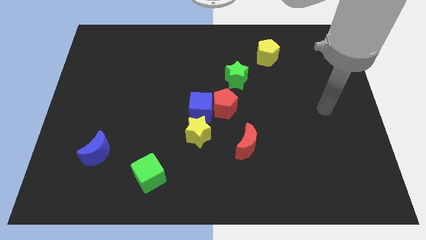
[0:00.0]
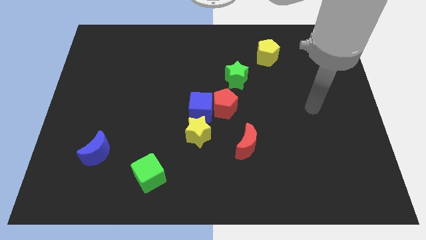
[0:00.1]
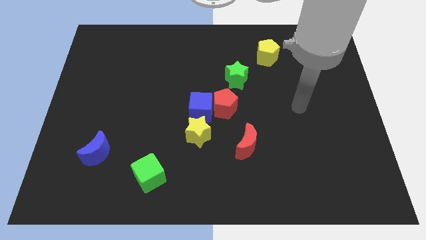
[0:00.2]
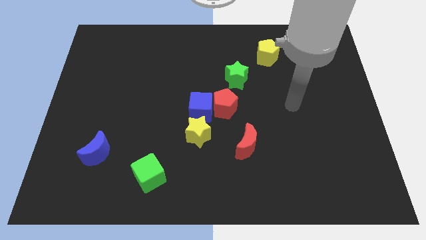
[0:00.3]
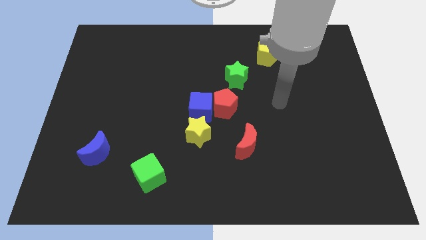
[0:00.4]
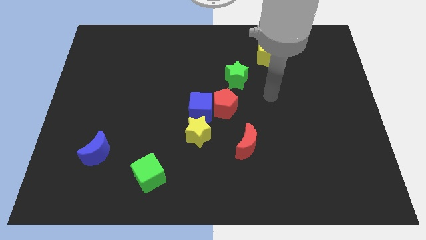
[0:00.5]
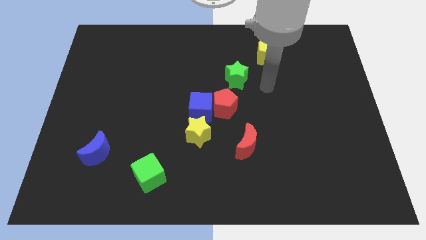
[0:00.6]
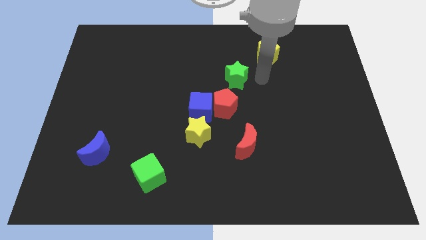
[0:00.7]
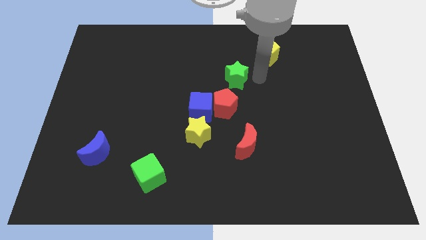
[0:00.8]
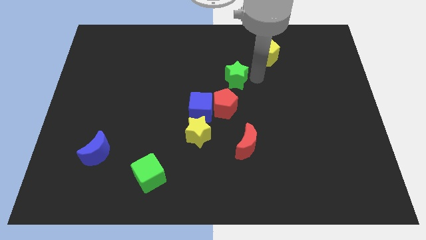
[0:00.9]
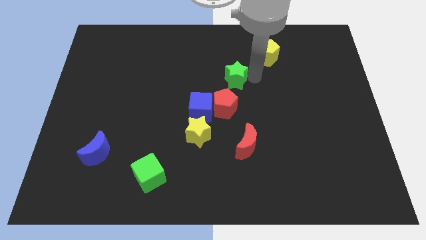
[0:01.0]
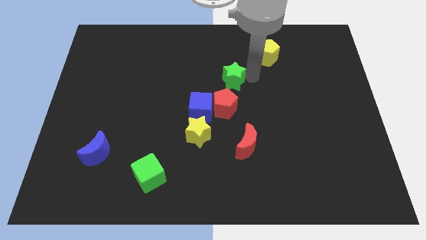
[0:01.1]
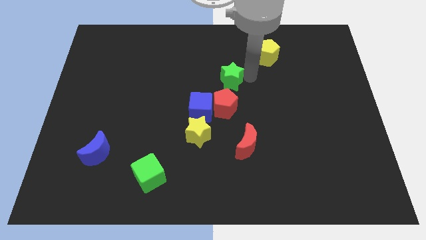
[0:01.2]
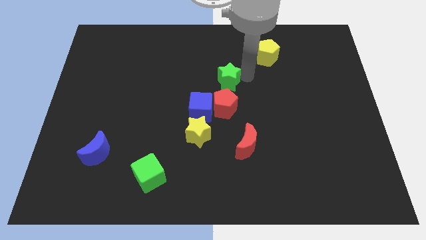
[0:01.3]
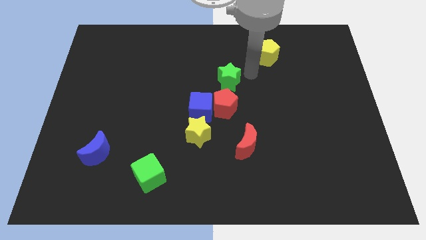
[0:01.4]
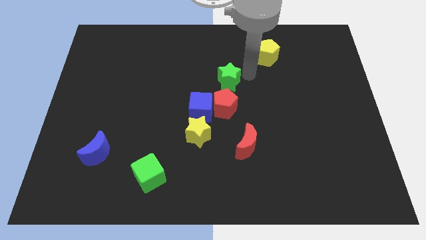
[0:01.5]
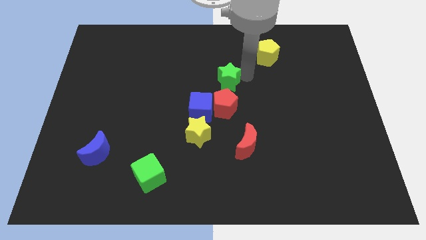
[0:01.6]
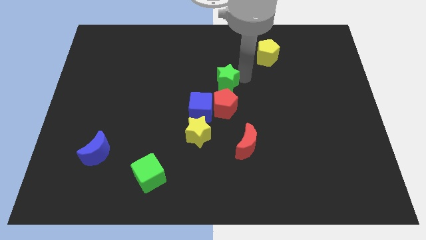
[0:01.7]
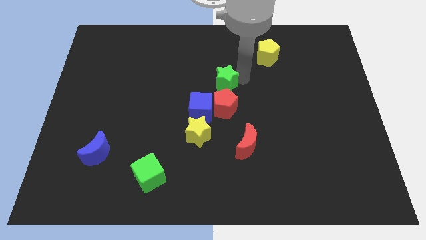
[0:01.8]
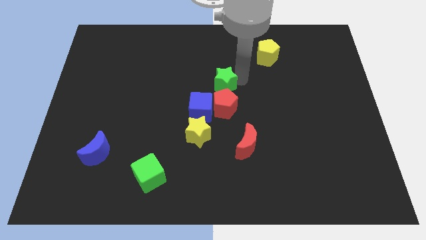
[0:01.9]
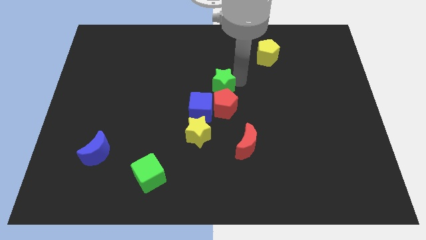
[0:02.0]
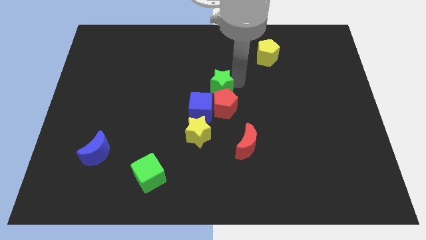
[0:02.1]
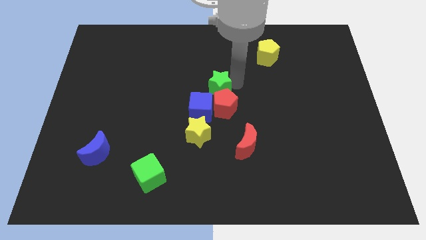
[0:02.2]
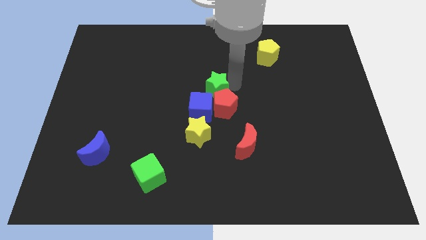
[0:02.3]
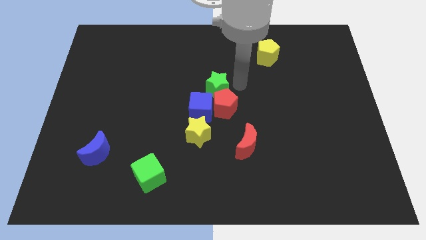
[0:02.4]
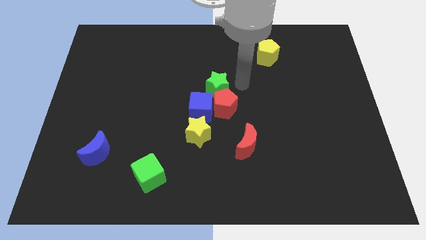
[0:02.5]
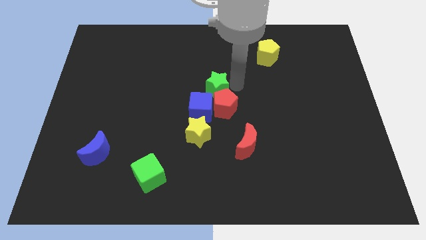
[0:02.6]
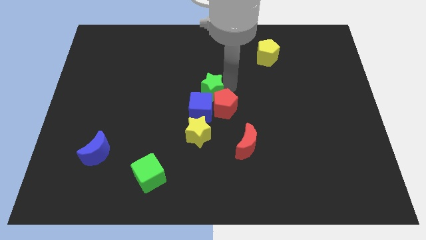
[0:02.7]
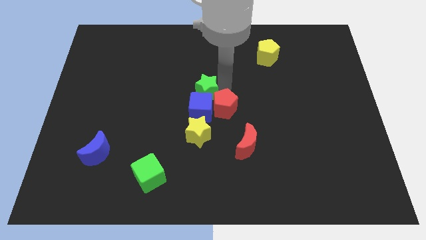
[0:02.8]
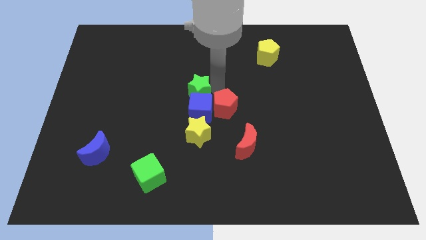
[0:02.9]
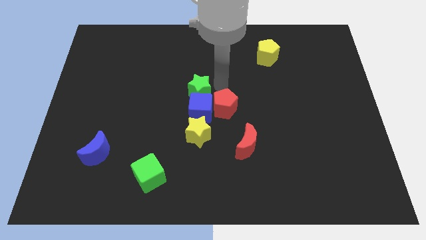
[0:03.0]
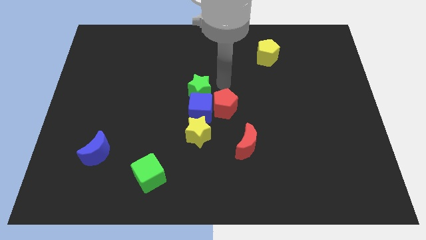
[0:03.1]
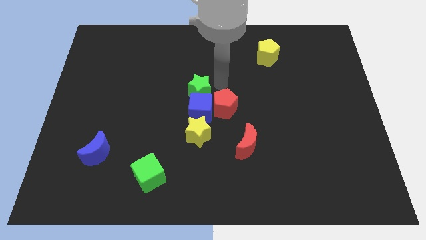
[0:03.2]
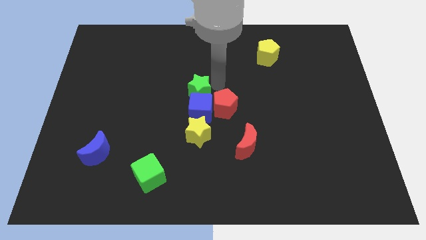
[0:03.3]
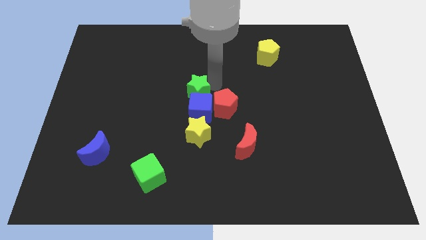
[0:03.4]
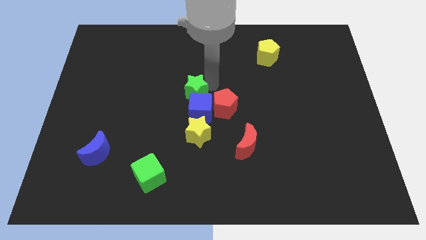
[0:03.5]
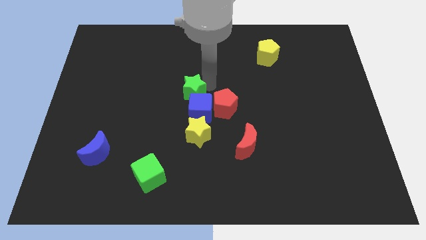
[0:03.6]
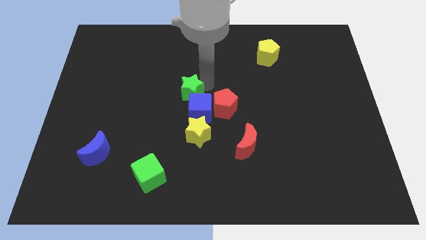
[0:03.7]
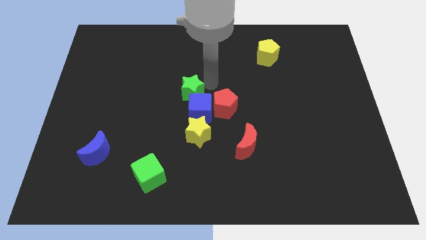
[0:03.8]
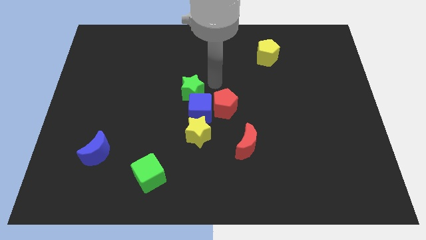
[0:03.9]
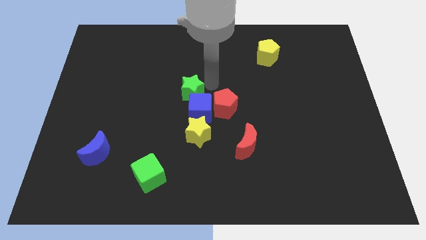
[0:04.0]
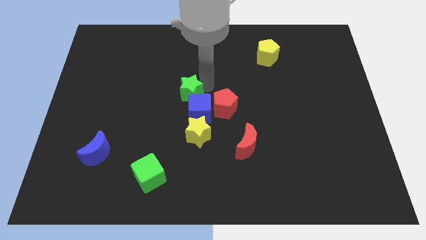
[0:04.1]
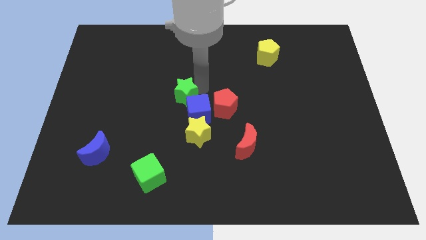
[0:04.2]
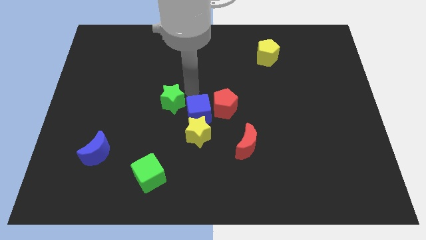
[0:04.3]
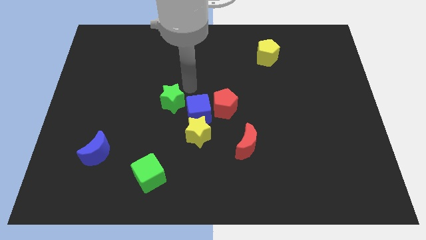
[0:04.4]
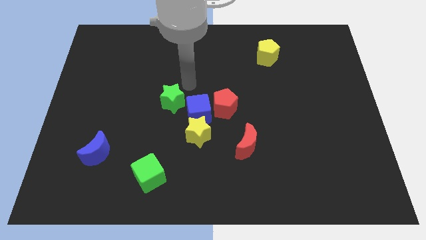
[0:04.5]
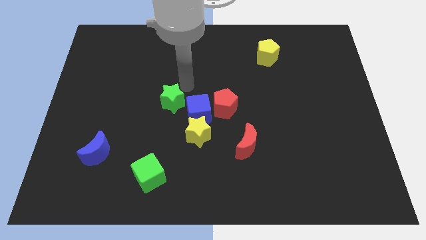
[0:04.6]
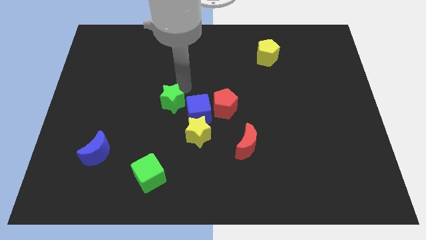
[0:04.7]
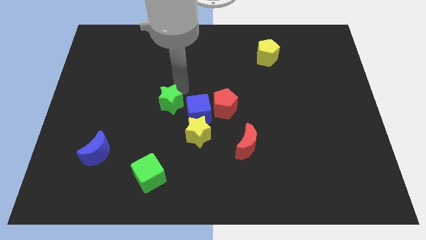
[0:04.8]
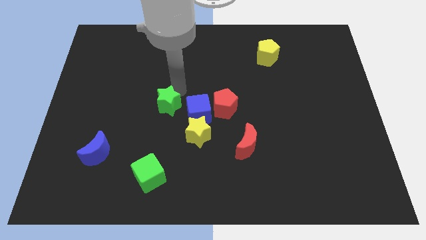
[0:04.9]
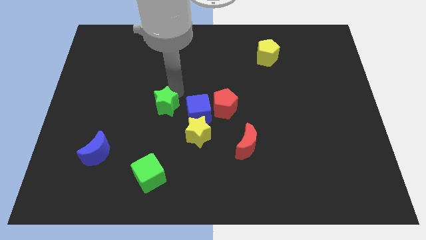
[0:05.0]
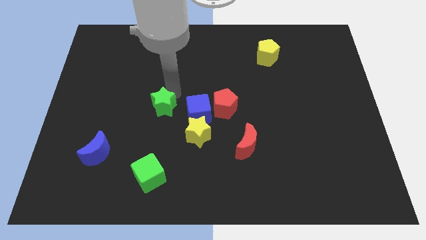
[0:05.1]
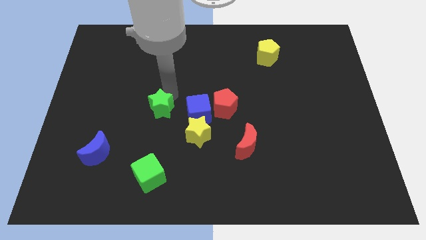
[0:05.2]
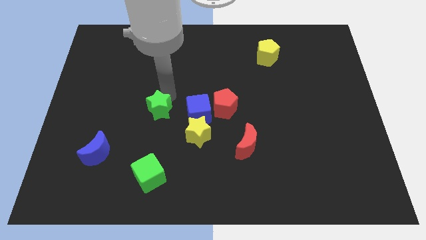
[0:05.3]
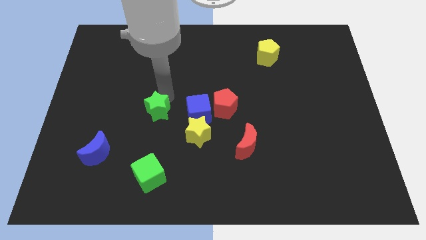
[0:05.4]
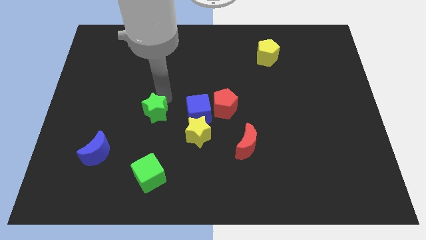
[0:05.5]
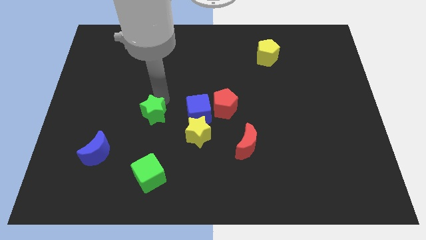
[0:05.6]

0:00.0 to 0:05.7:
push the green star downwards and left diagonally

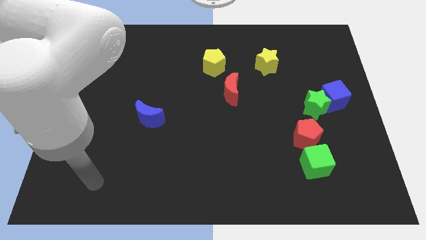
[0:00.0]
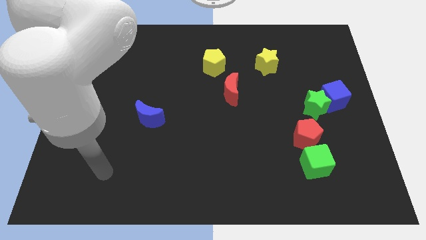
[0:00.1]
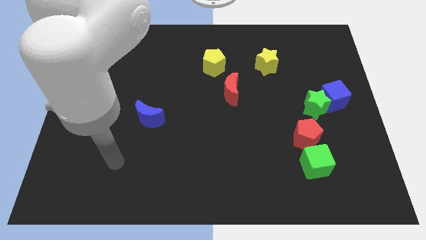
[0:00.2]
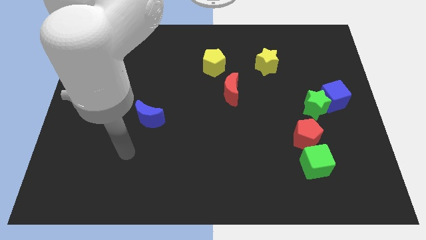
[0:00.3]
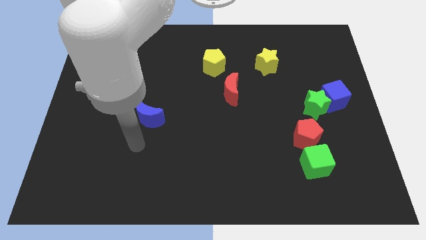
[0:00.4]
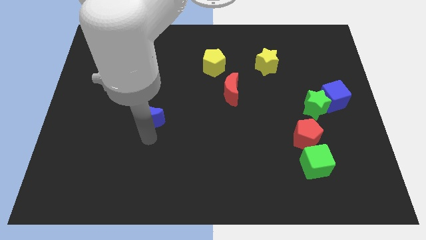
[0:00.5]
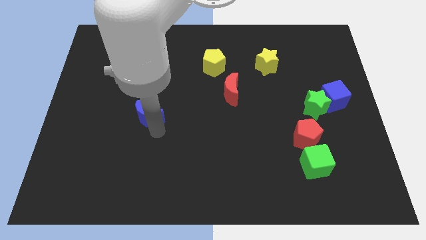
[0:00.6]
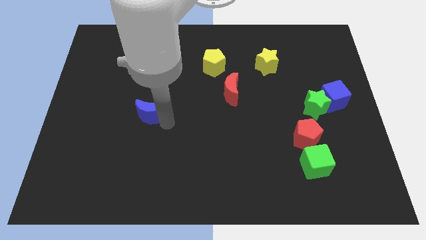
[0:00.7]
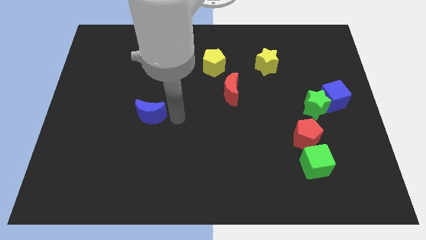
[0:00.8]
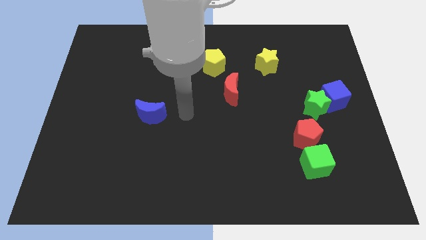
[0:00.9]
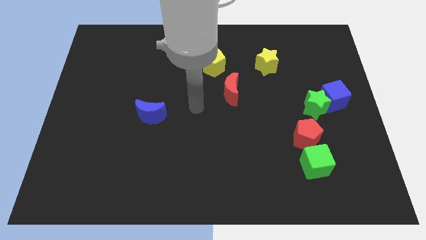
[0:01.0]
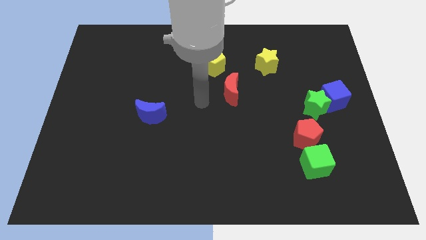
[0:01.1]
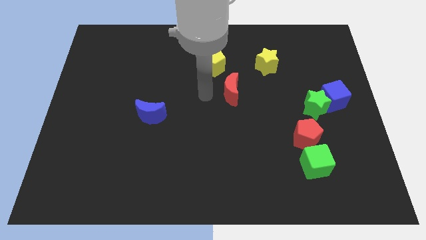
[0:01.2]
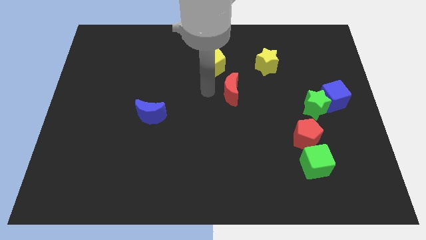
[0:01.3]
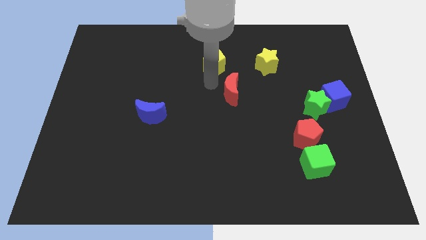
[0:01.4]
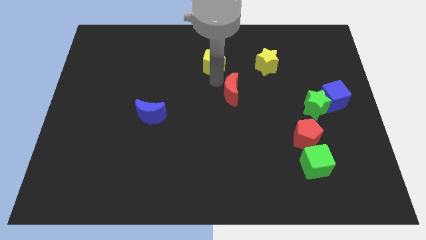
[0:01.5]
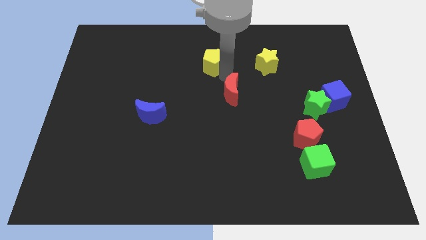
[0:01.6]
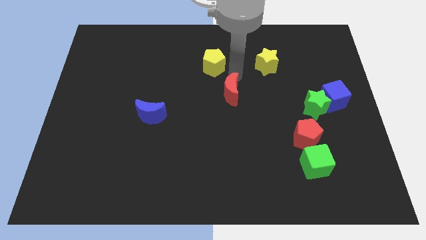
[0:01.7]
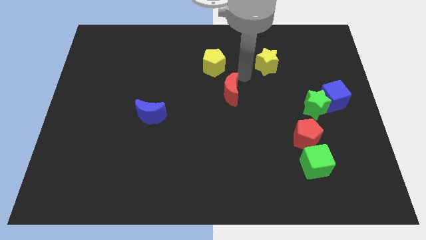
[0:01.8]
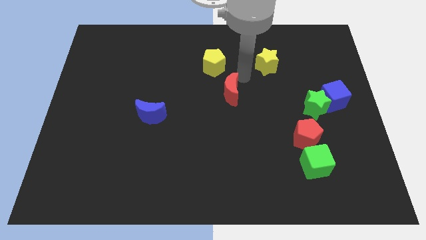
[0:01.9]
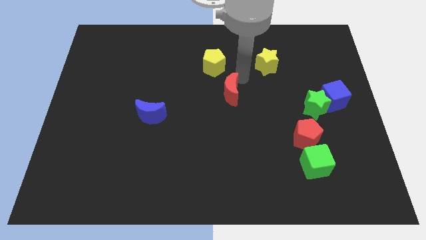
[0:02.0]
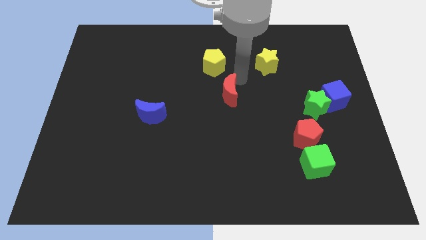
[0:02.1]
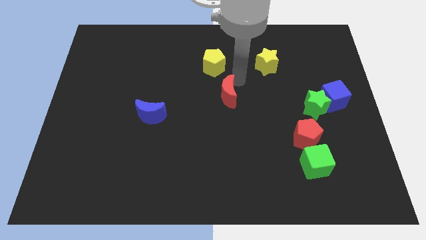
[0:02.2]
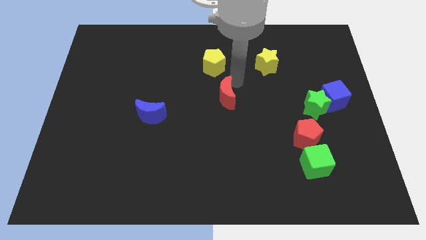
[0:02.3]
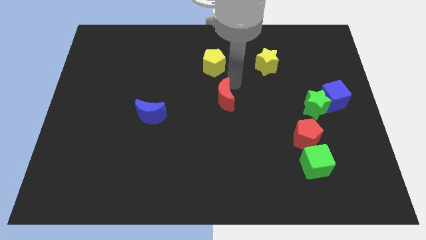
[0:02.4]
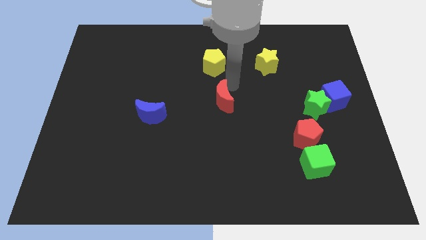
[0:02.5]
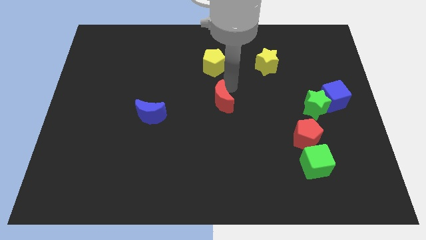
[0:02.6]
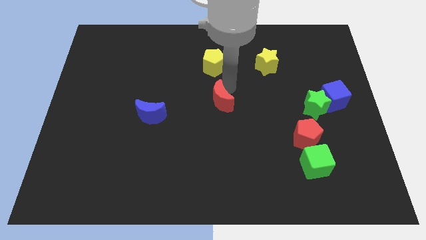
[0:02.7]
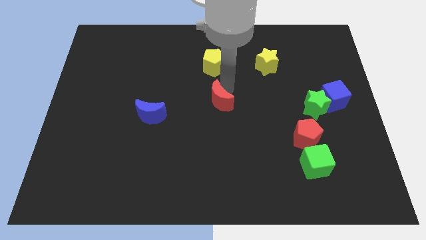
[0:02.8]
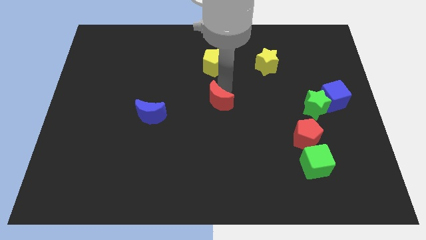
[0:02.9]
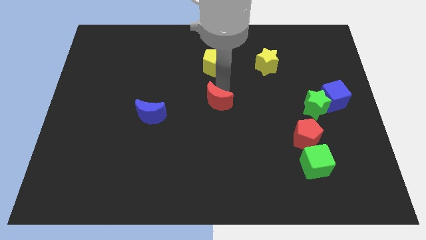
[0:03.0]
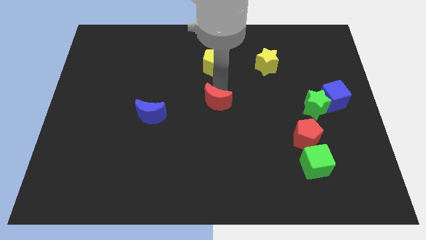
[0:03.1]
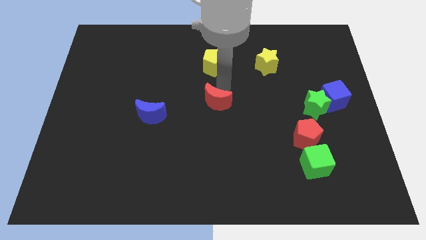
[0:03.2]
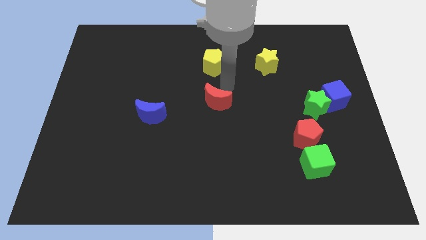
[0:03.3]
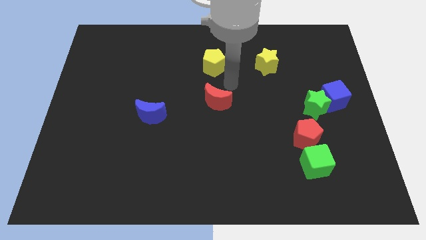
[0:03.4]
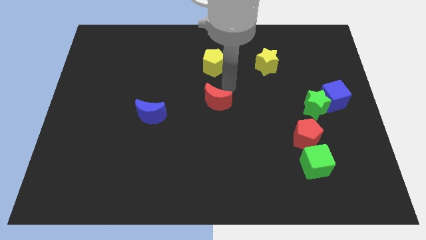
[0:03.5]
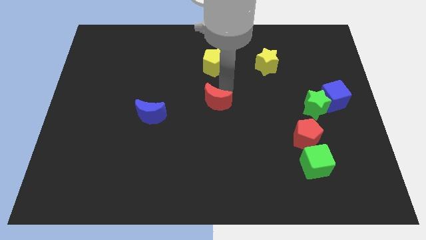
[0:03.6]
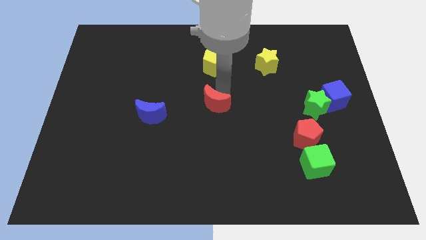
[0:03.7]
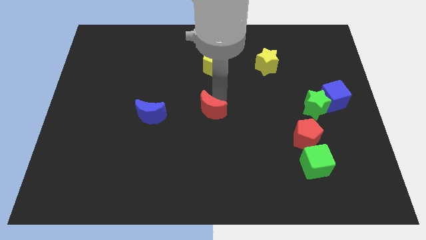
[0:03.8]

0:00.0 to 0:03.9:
push the red moon a bit downwards and then to the left
